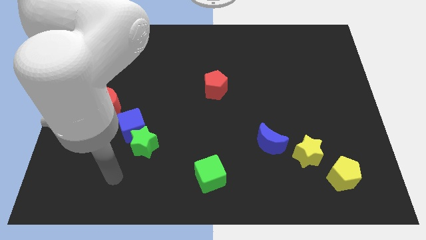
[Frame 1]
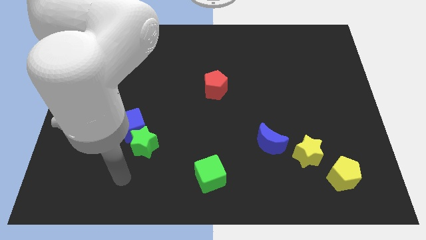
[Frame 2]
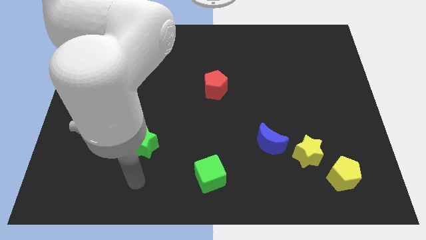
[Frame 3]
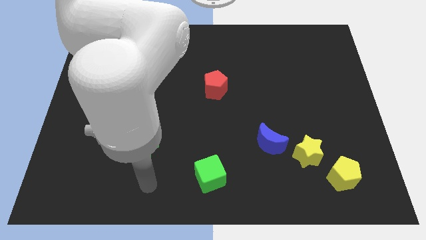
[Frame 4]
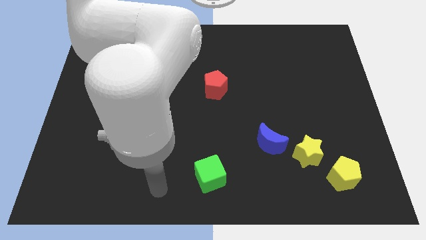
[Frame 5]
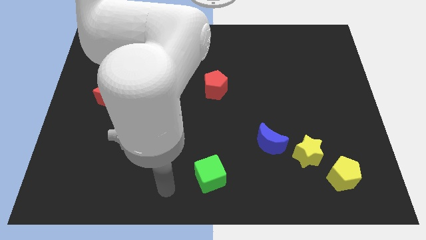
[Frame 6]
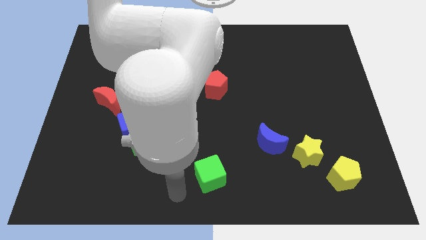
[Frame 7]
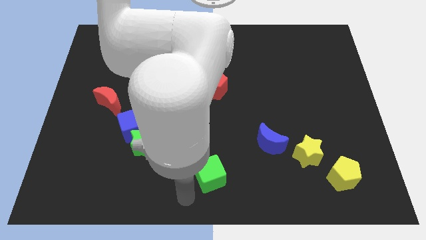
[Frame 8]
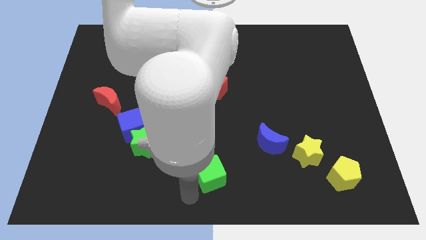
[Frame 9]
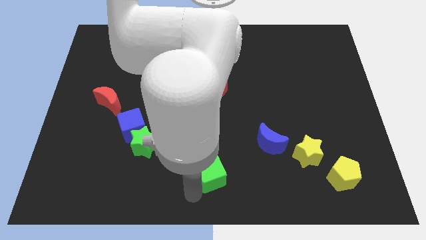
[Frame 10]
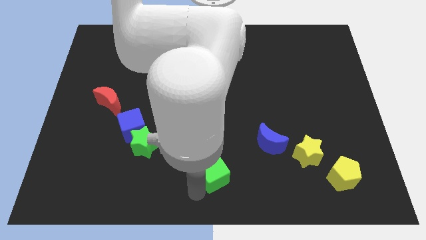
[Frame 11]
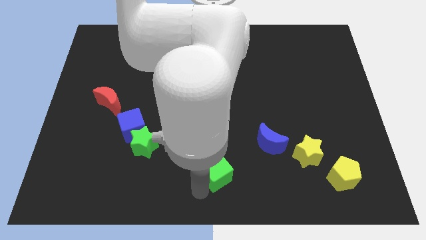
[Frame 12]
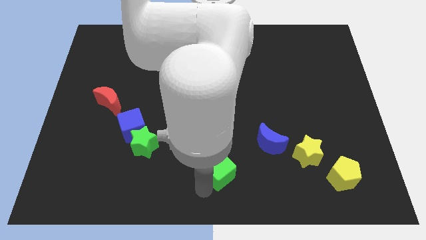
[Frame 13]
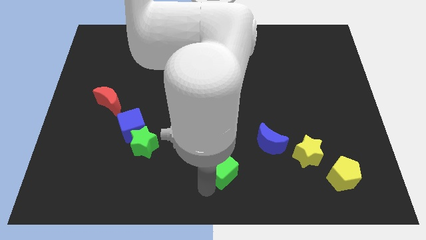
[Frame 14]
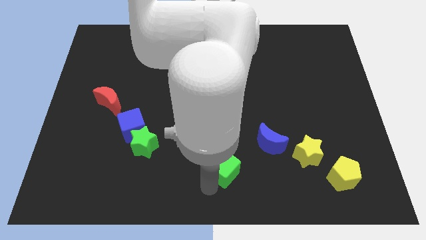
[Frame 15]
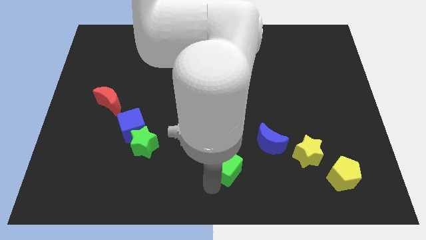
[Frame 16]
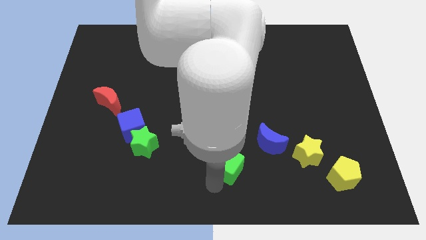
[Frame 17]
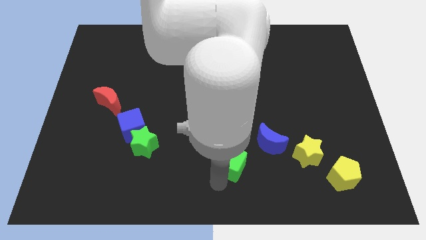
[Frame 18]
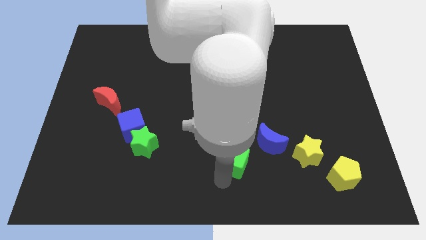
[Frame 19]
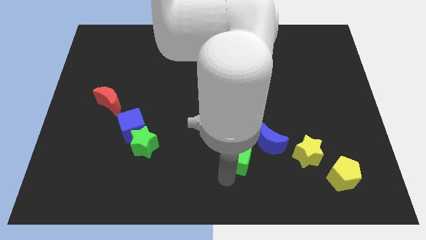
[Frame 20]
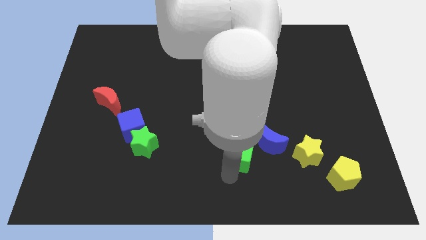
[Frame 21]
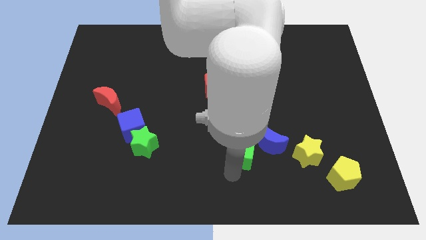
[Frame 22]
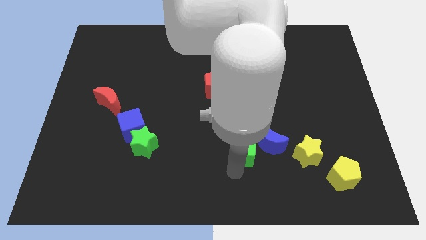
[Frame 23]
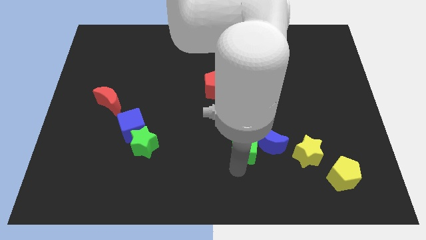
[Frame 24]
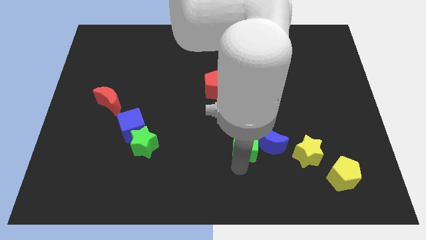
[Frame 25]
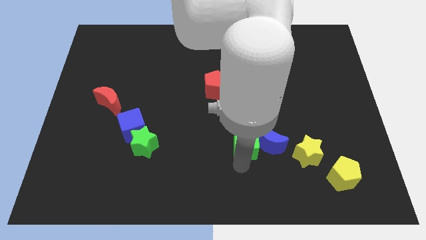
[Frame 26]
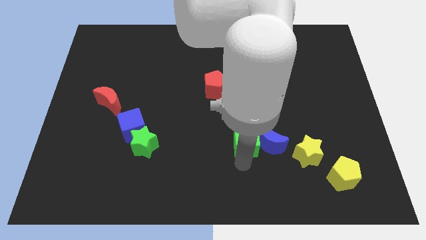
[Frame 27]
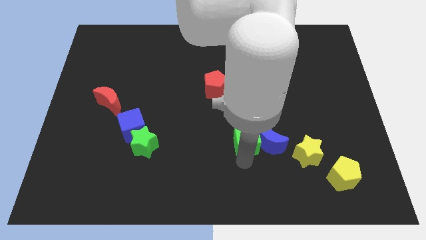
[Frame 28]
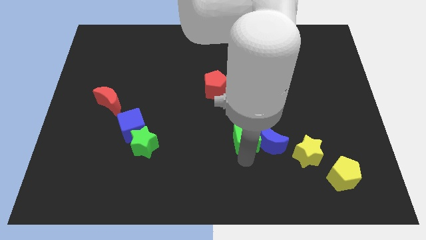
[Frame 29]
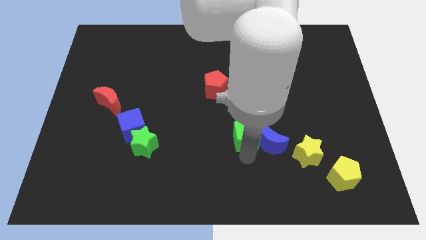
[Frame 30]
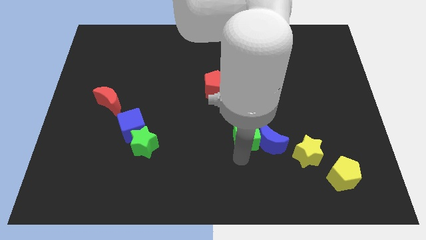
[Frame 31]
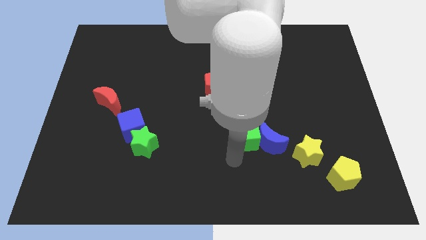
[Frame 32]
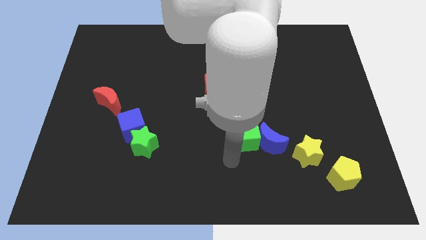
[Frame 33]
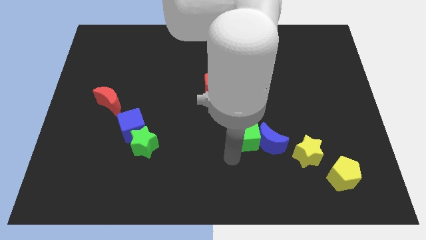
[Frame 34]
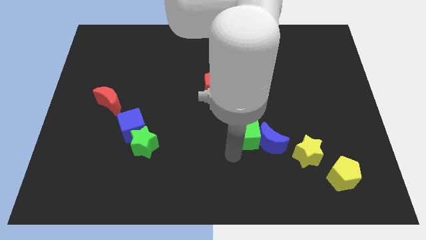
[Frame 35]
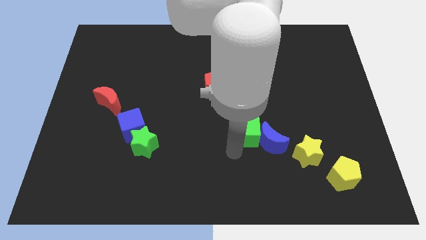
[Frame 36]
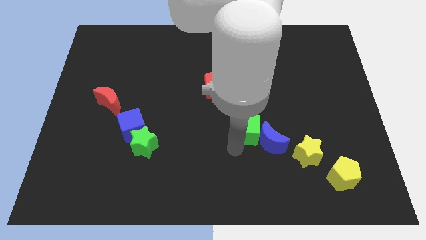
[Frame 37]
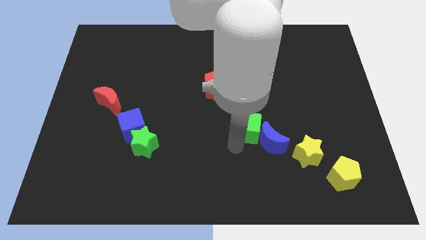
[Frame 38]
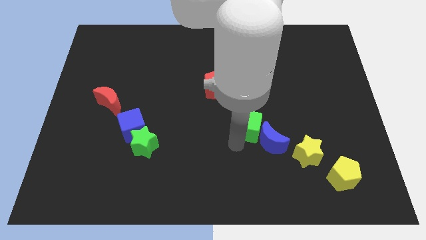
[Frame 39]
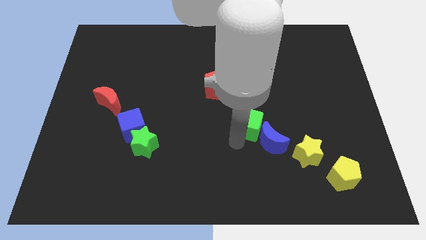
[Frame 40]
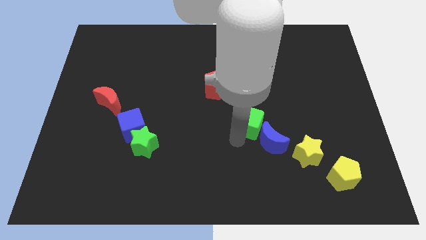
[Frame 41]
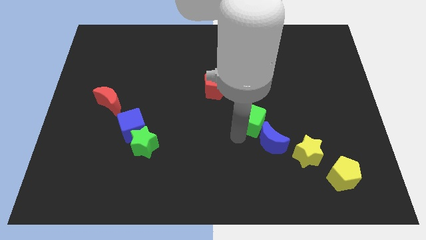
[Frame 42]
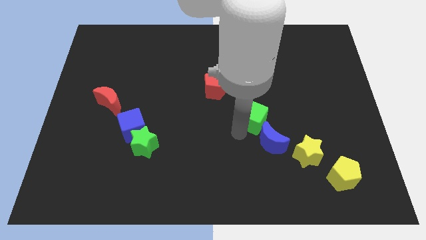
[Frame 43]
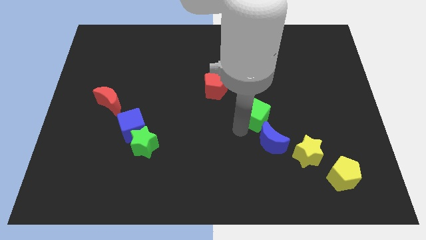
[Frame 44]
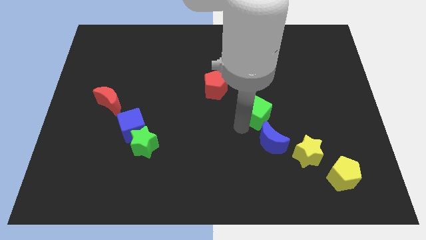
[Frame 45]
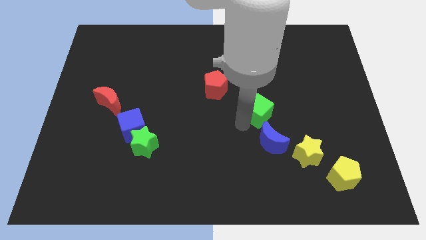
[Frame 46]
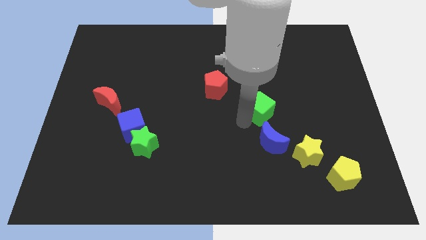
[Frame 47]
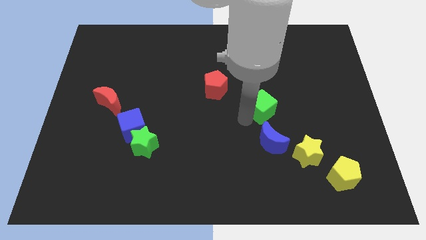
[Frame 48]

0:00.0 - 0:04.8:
push the green cube upwards and then to the right

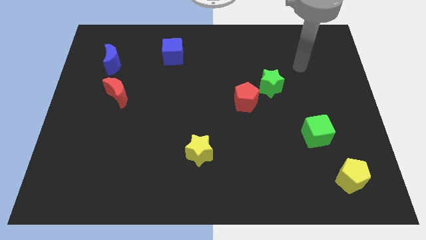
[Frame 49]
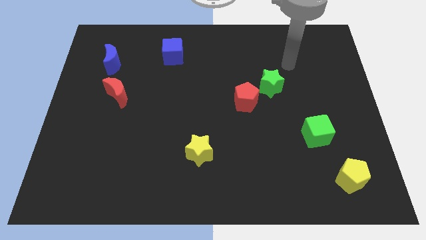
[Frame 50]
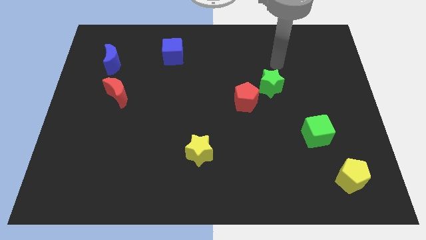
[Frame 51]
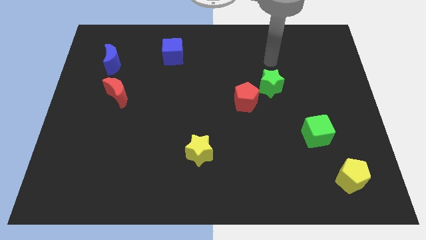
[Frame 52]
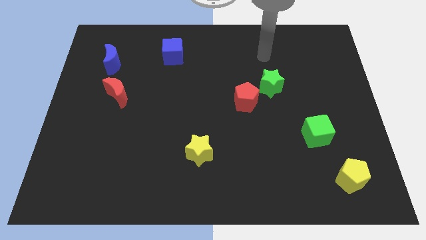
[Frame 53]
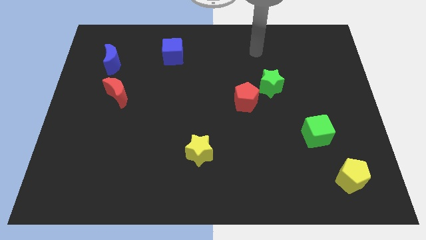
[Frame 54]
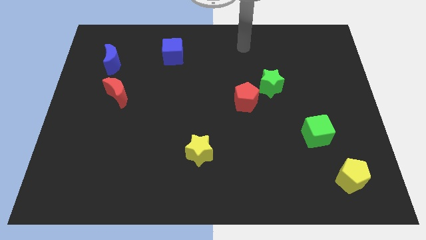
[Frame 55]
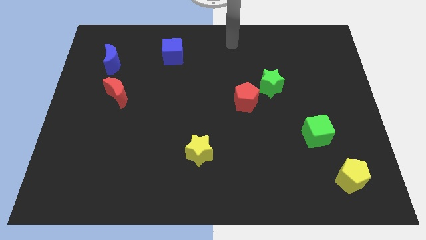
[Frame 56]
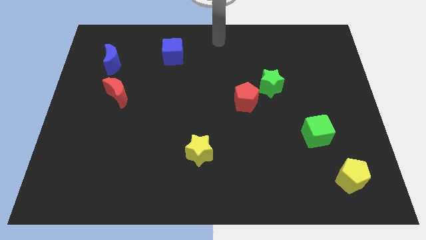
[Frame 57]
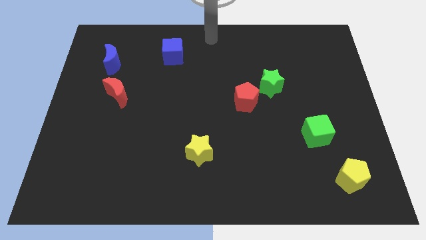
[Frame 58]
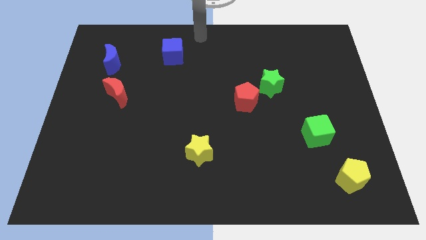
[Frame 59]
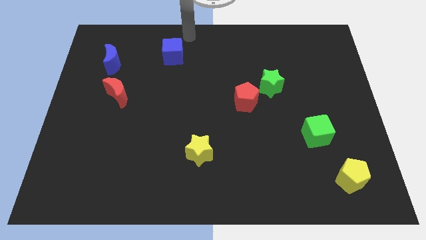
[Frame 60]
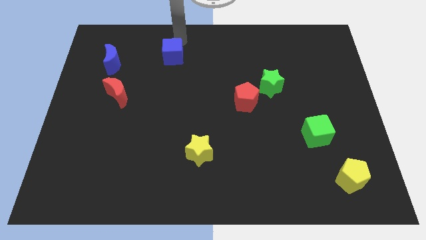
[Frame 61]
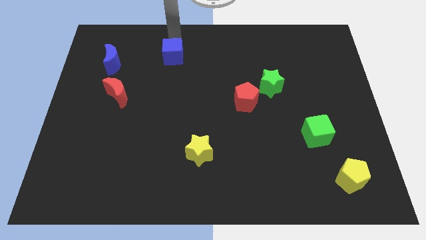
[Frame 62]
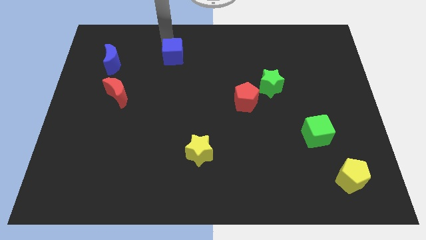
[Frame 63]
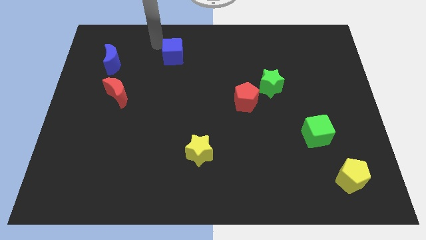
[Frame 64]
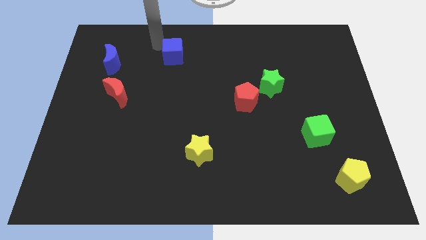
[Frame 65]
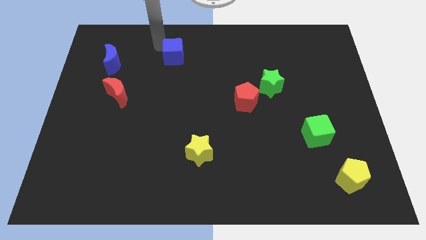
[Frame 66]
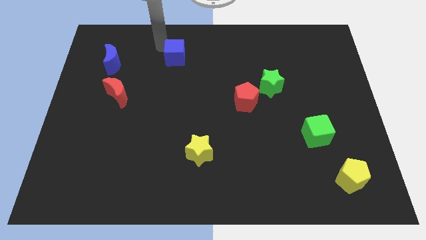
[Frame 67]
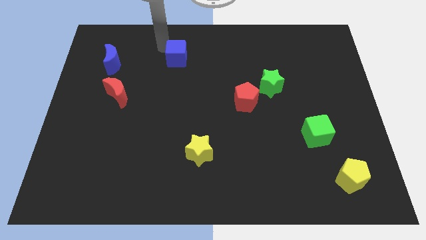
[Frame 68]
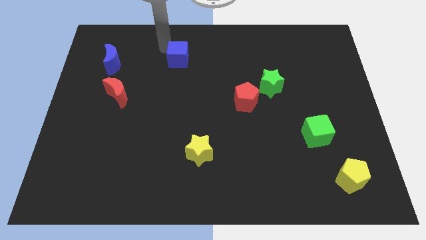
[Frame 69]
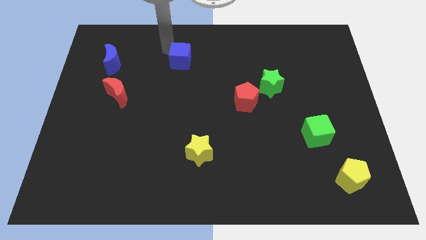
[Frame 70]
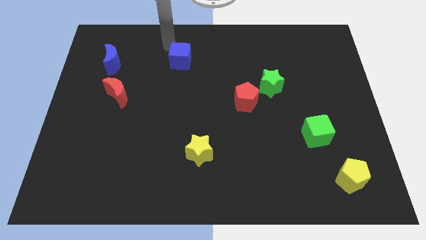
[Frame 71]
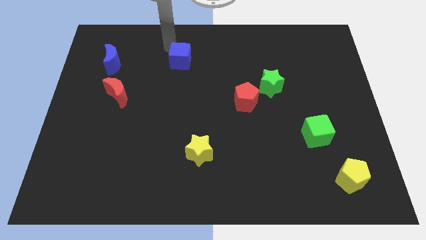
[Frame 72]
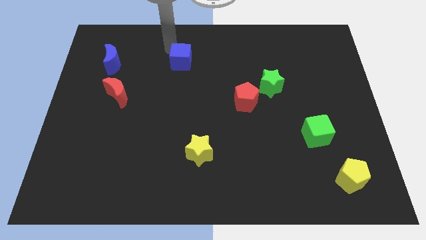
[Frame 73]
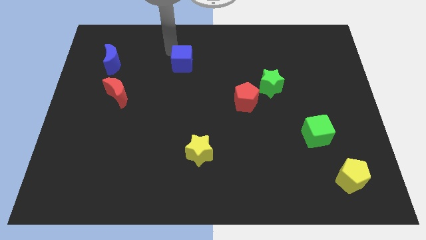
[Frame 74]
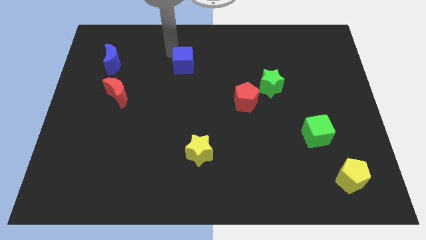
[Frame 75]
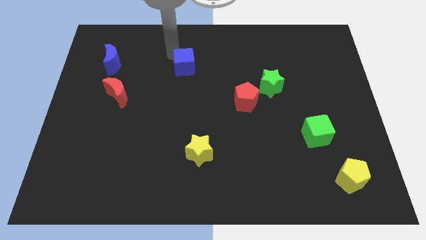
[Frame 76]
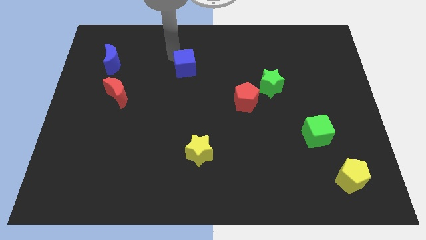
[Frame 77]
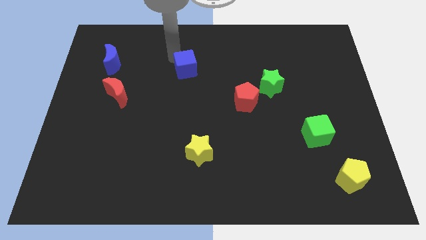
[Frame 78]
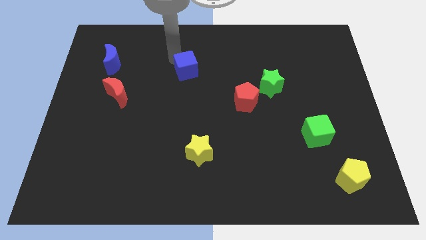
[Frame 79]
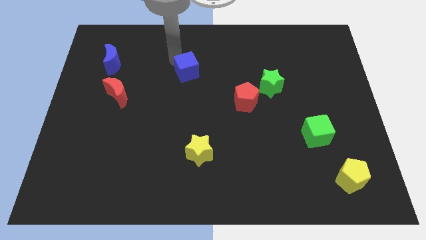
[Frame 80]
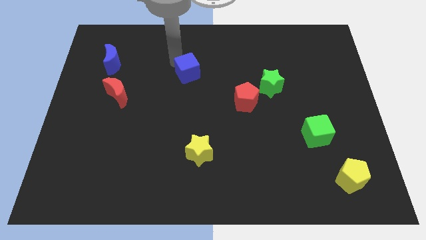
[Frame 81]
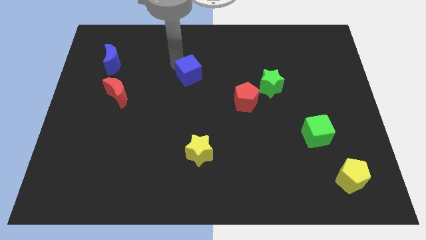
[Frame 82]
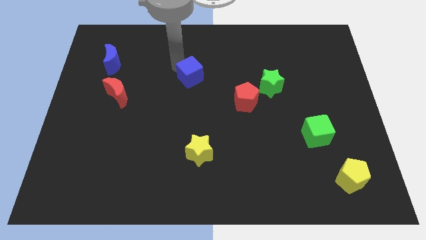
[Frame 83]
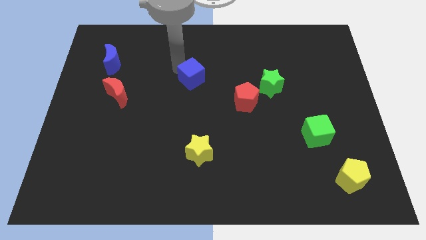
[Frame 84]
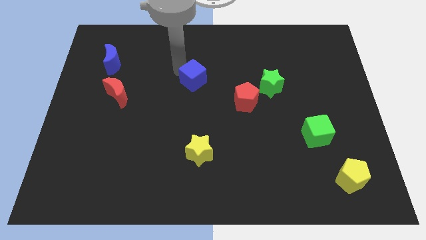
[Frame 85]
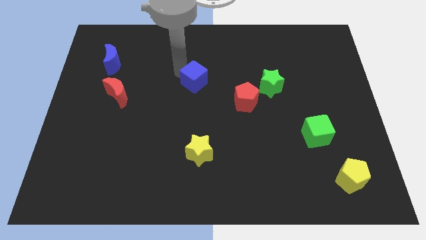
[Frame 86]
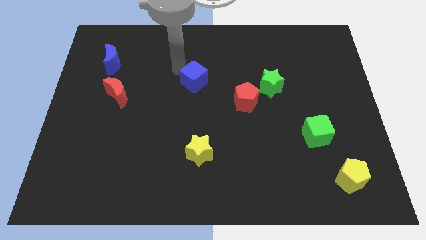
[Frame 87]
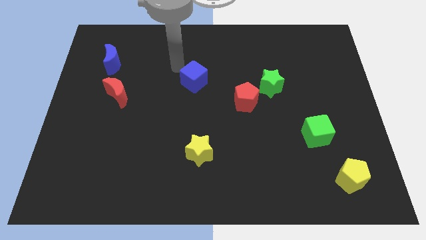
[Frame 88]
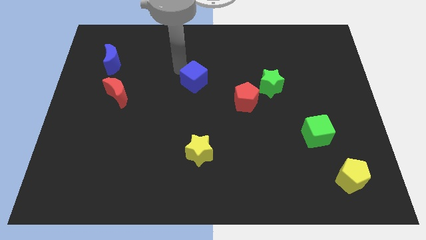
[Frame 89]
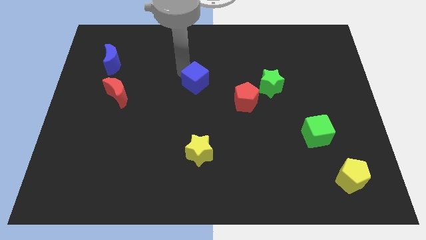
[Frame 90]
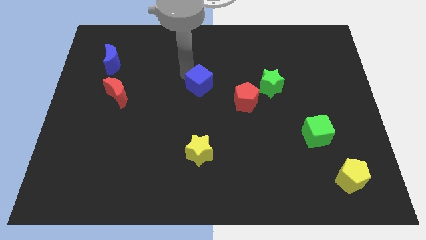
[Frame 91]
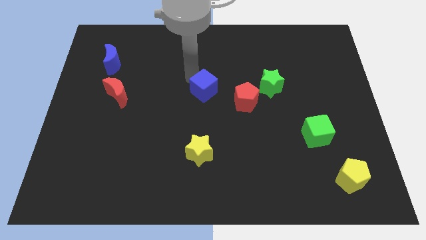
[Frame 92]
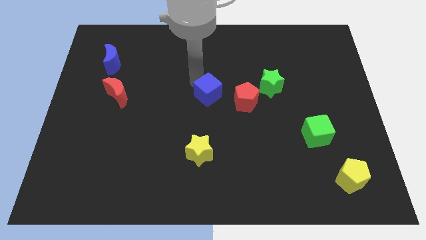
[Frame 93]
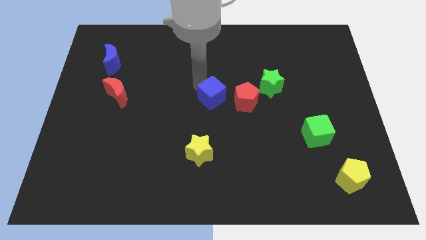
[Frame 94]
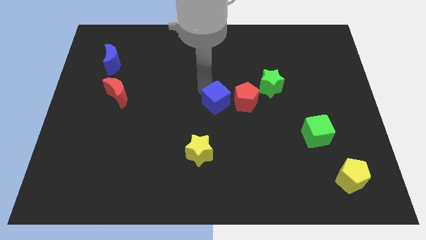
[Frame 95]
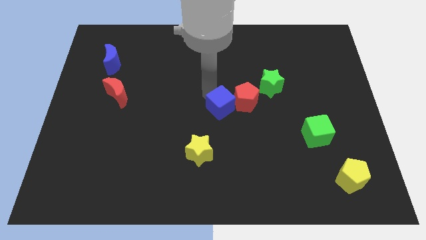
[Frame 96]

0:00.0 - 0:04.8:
slide the blue cube downwards and to the right
